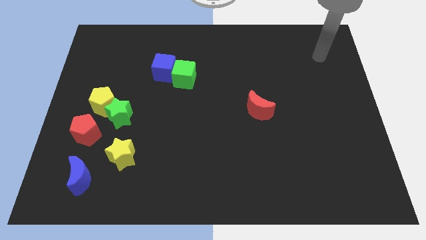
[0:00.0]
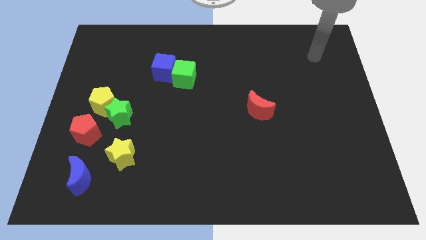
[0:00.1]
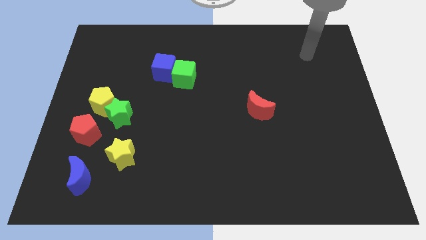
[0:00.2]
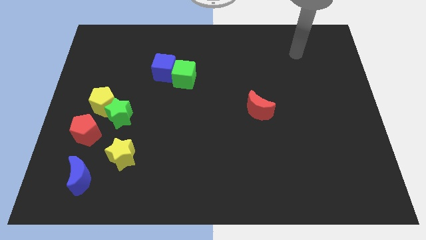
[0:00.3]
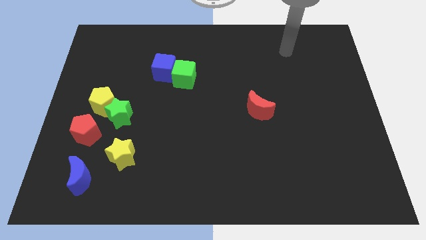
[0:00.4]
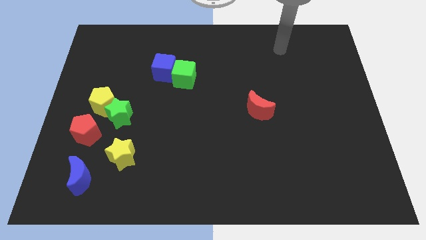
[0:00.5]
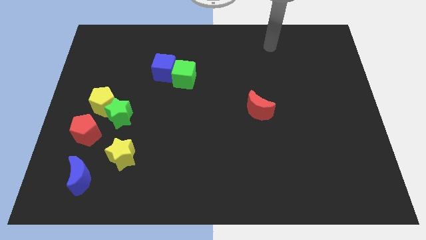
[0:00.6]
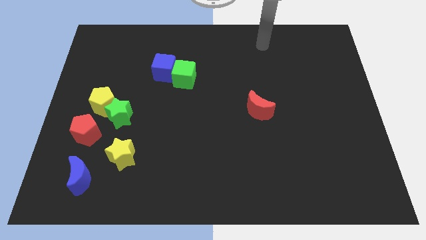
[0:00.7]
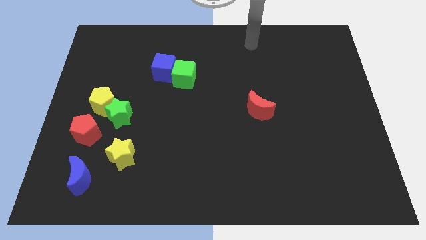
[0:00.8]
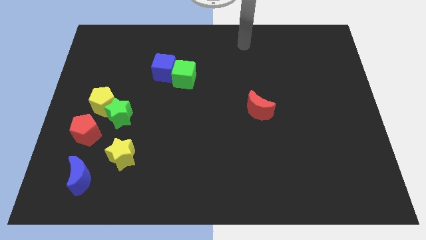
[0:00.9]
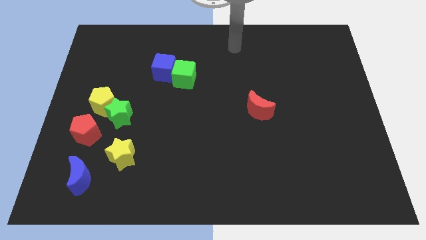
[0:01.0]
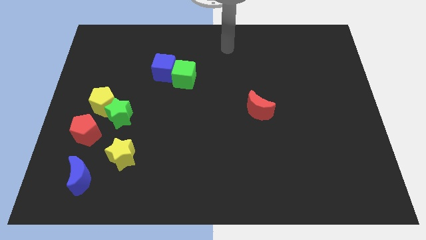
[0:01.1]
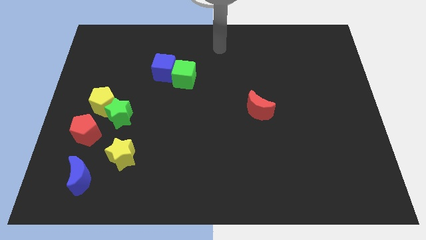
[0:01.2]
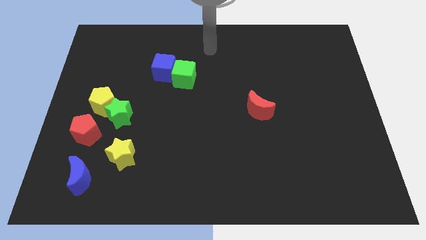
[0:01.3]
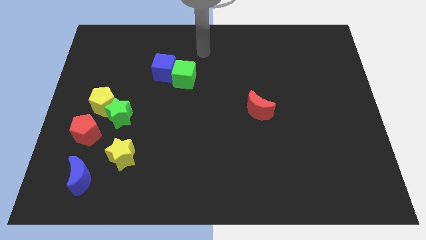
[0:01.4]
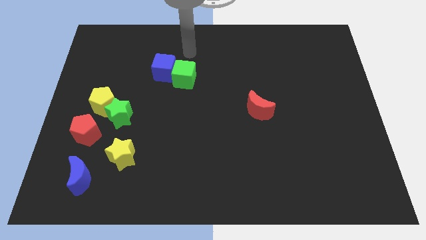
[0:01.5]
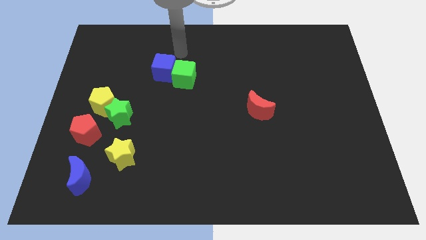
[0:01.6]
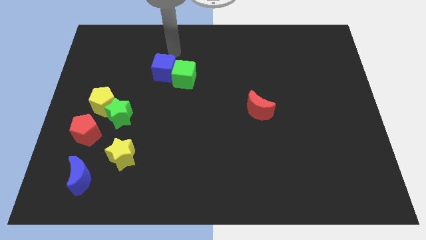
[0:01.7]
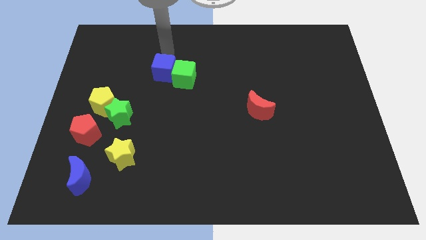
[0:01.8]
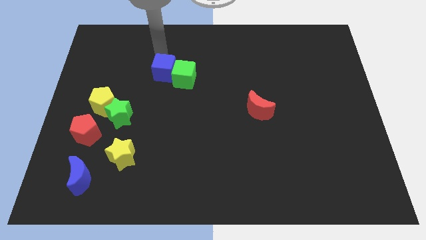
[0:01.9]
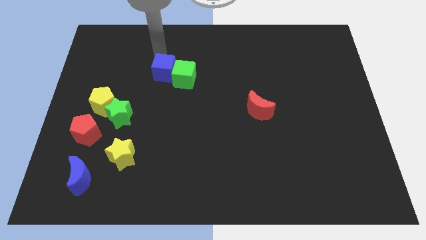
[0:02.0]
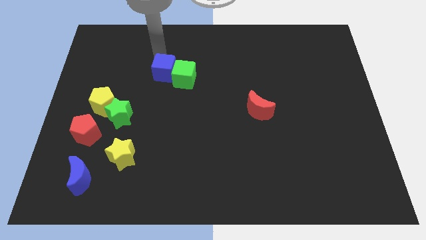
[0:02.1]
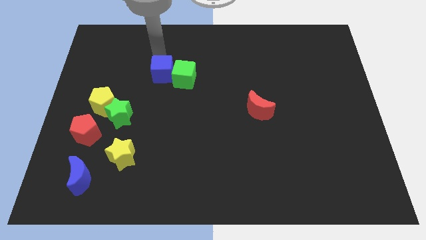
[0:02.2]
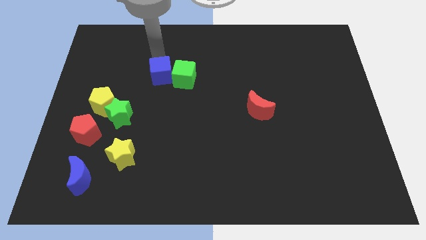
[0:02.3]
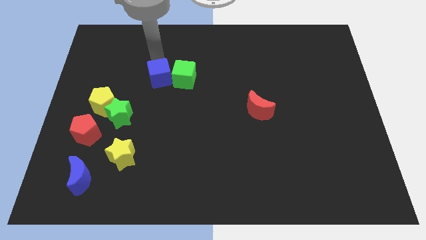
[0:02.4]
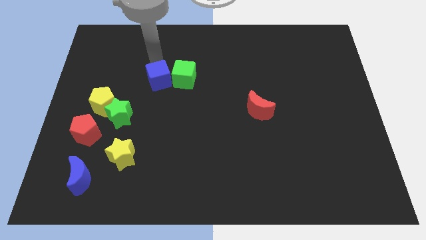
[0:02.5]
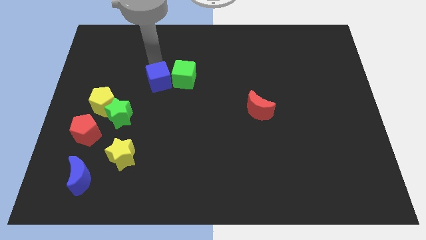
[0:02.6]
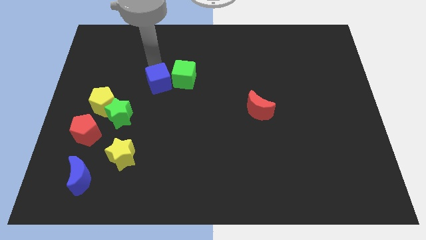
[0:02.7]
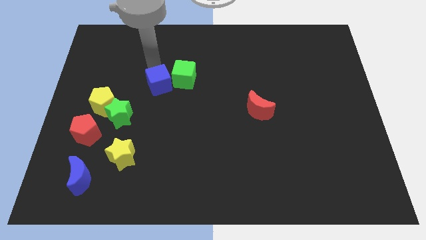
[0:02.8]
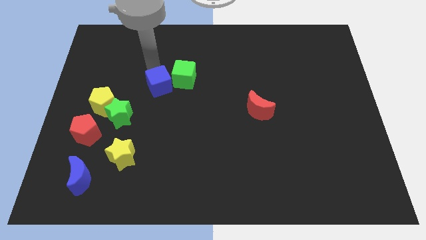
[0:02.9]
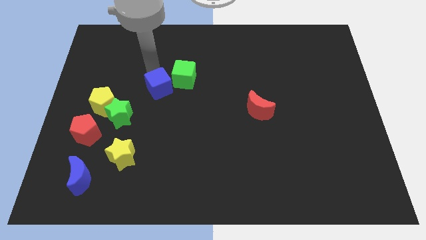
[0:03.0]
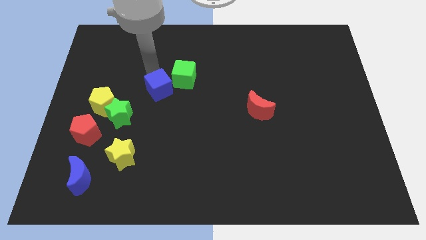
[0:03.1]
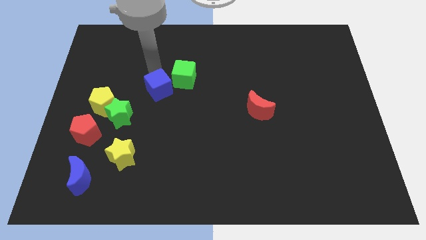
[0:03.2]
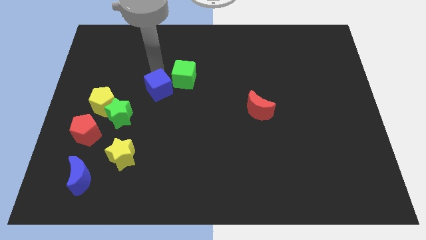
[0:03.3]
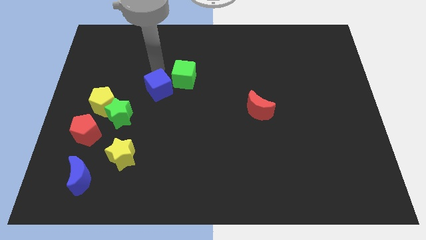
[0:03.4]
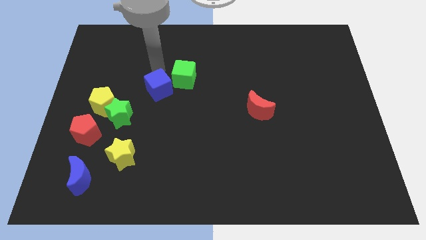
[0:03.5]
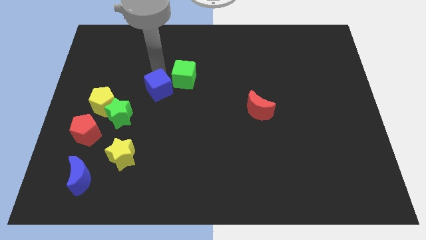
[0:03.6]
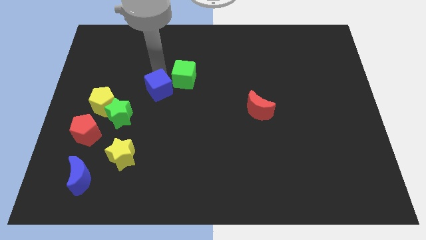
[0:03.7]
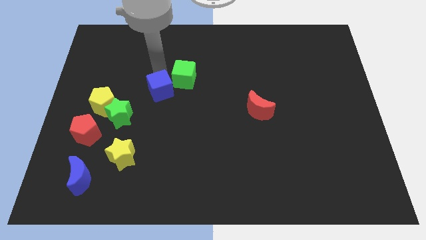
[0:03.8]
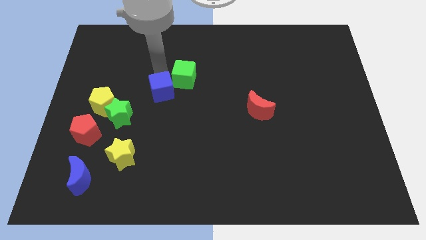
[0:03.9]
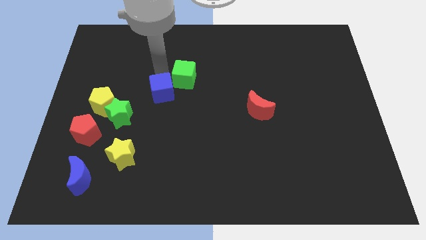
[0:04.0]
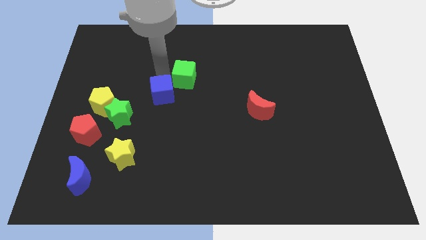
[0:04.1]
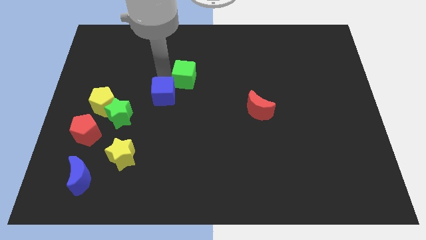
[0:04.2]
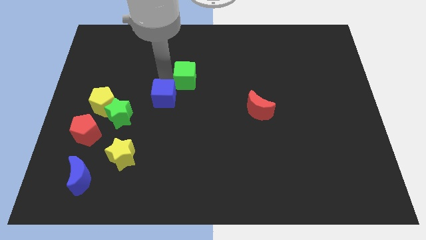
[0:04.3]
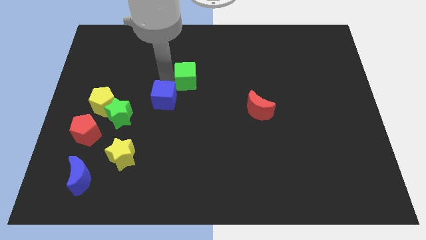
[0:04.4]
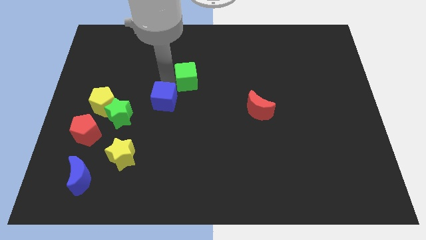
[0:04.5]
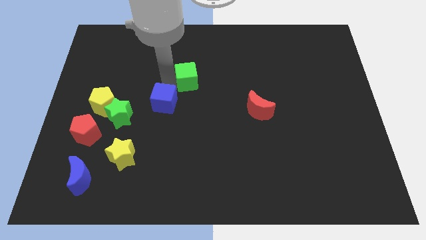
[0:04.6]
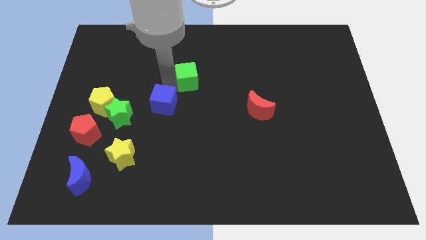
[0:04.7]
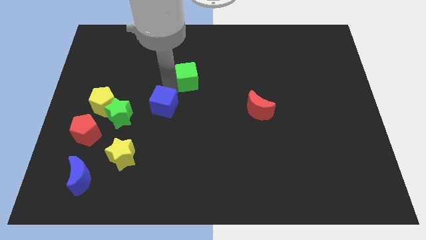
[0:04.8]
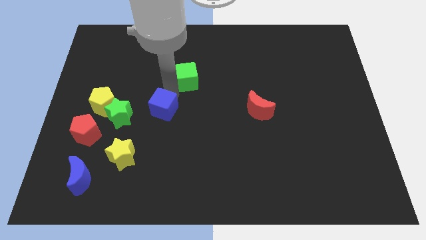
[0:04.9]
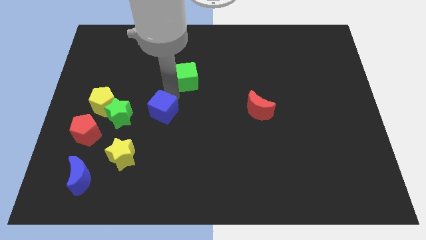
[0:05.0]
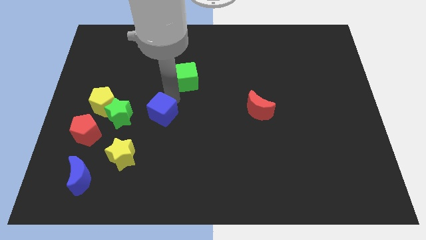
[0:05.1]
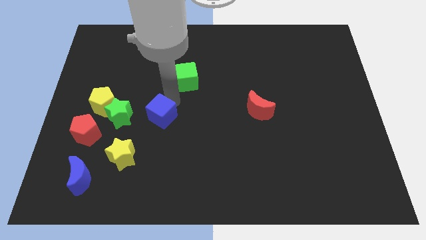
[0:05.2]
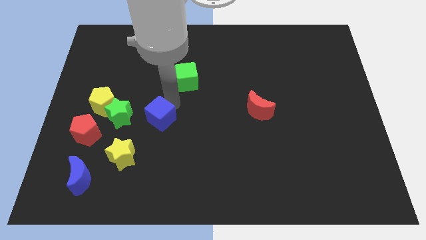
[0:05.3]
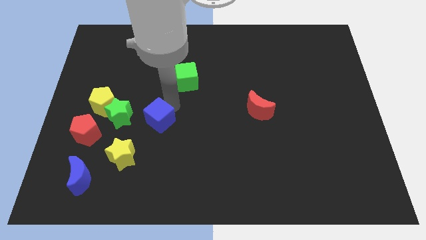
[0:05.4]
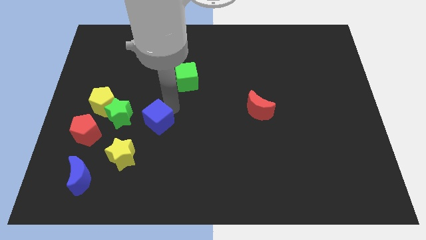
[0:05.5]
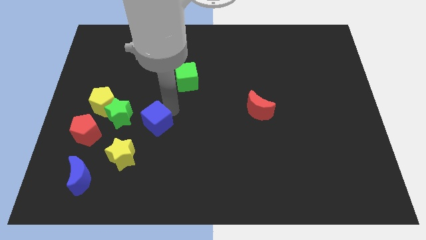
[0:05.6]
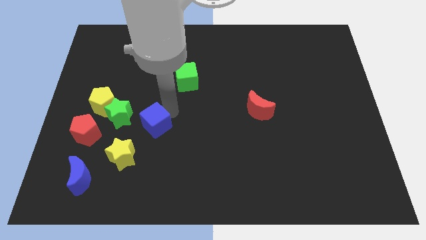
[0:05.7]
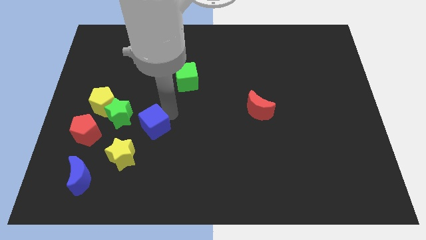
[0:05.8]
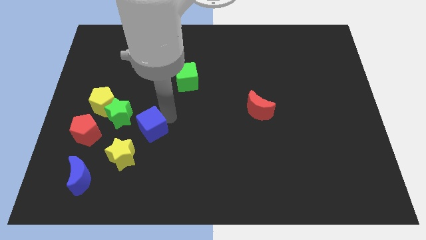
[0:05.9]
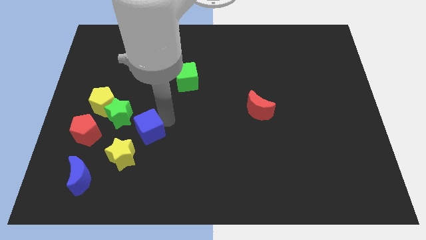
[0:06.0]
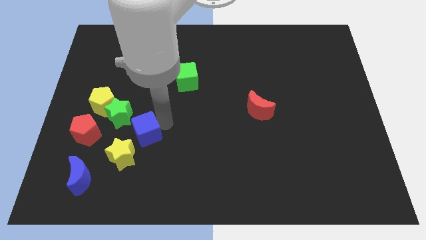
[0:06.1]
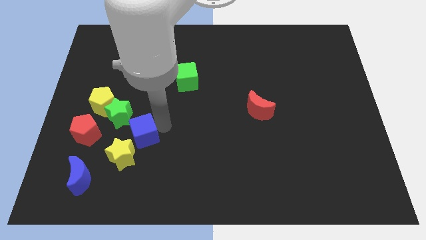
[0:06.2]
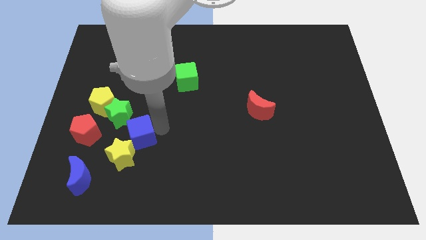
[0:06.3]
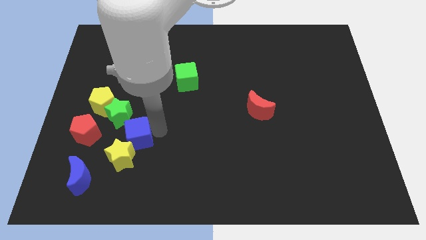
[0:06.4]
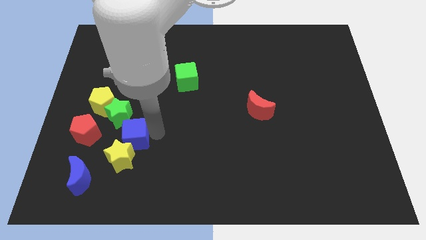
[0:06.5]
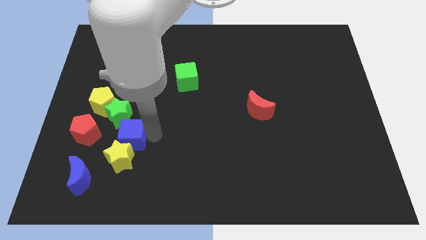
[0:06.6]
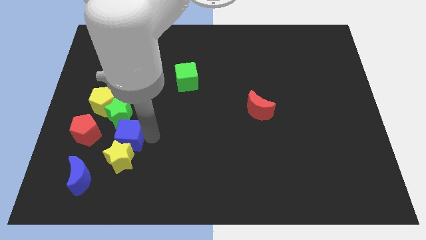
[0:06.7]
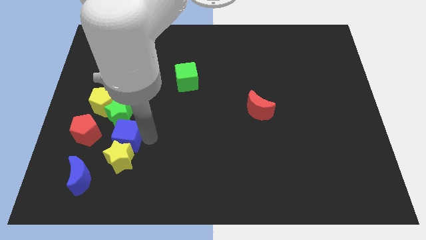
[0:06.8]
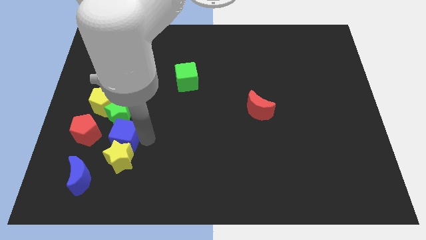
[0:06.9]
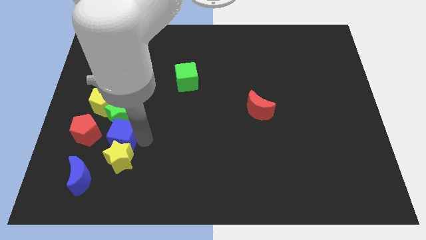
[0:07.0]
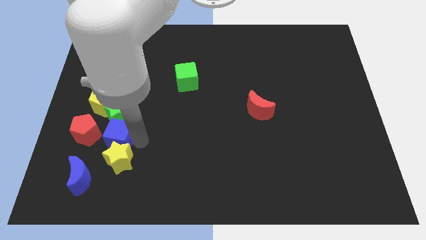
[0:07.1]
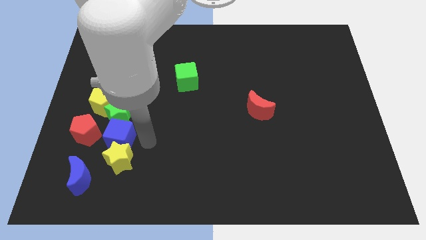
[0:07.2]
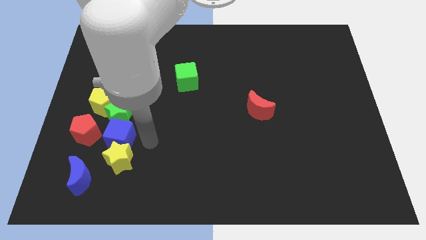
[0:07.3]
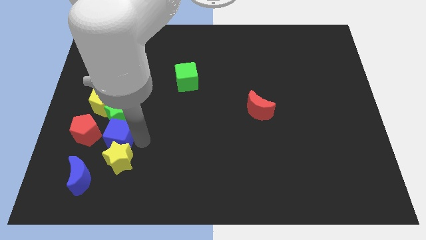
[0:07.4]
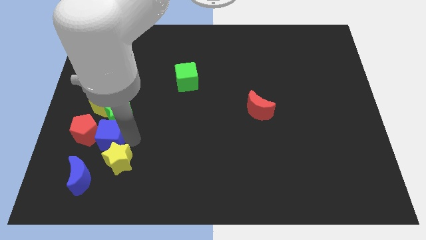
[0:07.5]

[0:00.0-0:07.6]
move the blue cube towards the red pentagon
